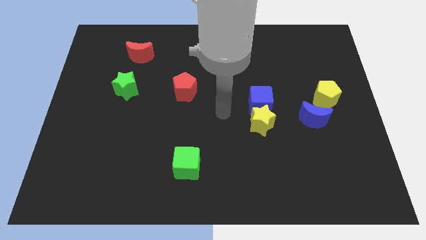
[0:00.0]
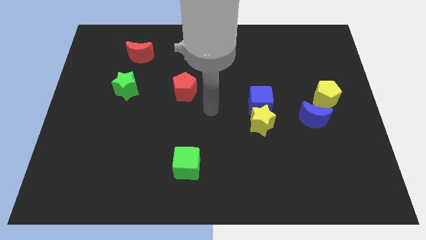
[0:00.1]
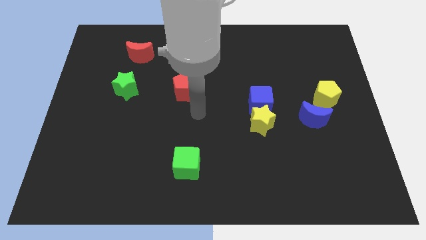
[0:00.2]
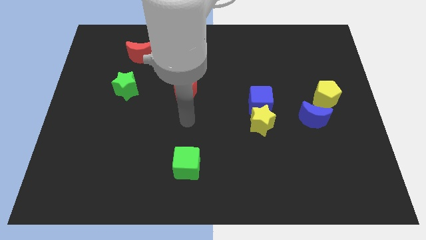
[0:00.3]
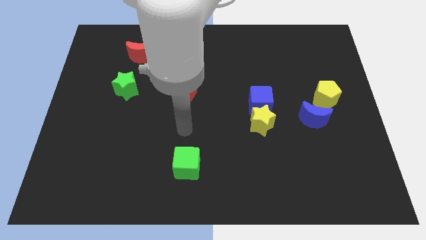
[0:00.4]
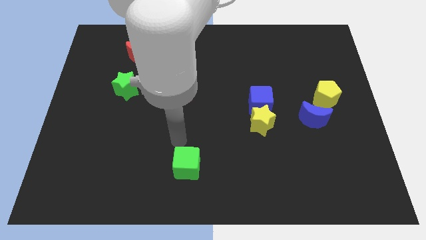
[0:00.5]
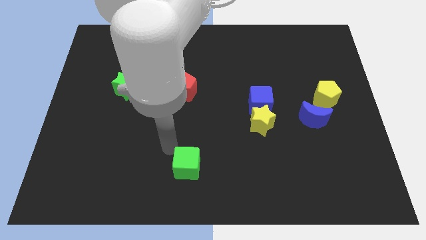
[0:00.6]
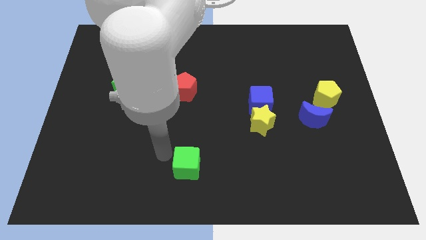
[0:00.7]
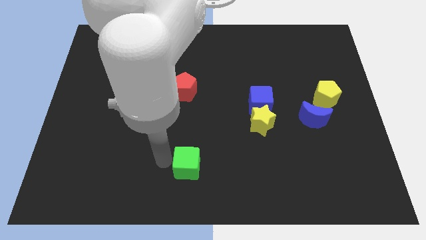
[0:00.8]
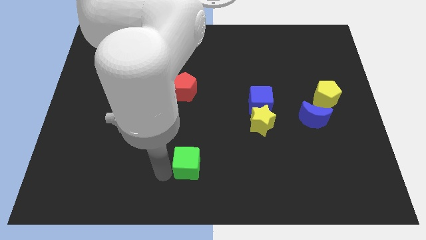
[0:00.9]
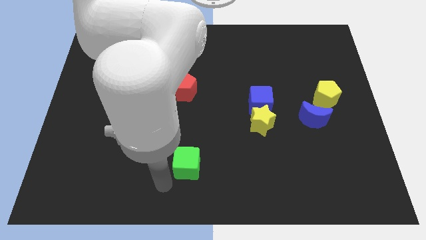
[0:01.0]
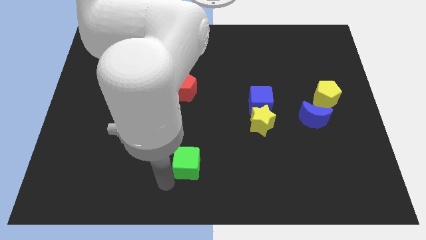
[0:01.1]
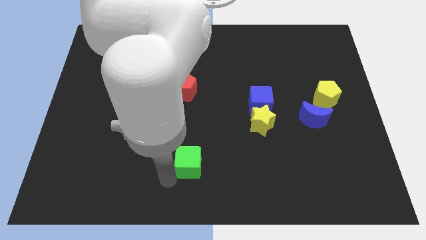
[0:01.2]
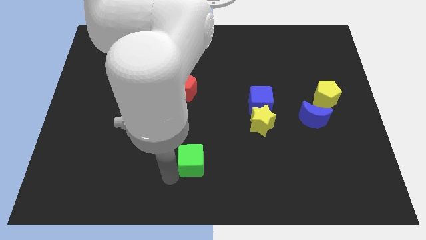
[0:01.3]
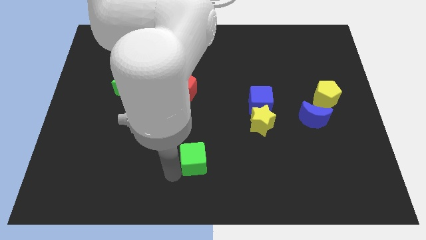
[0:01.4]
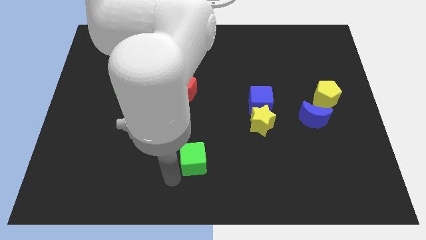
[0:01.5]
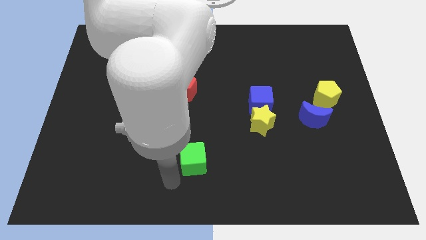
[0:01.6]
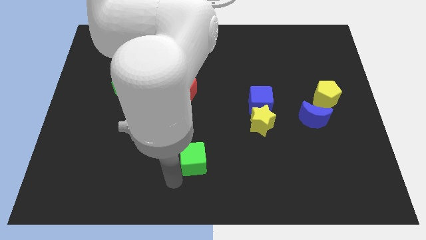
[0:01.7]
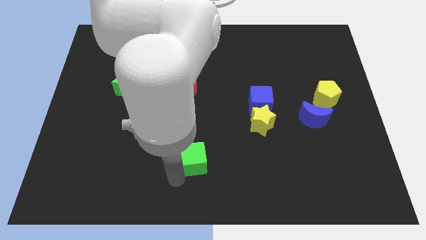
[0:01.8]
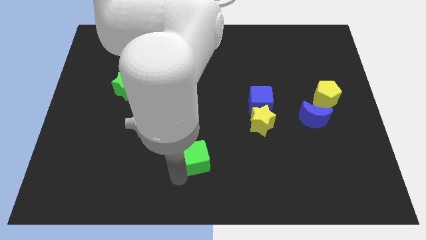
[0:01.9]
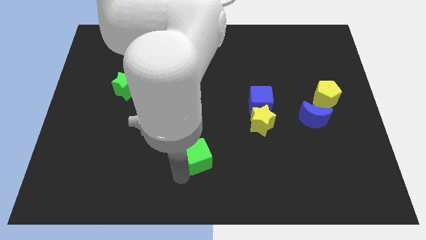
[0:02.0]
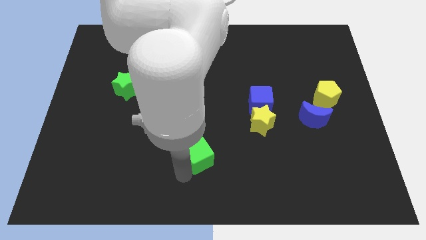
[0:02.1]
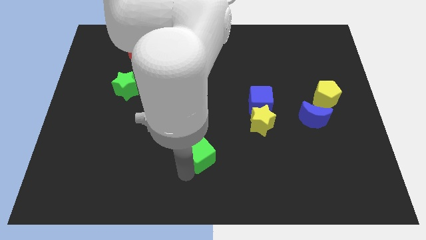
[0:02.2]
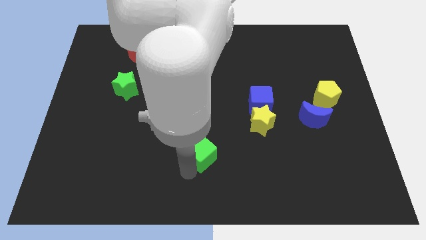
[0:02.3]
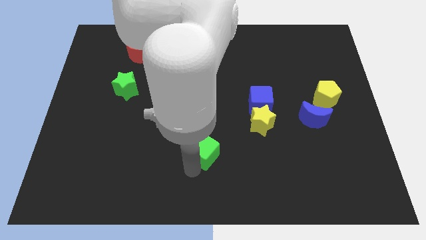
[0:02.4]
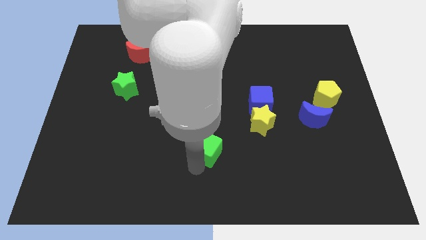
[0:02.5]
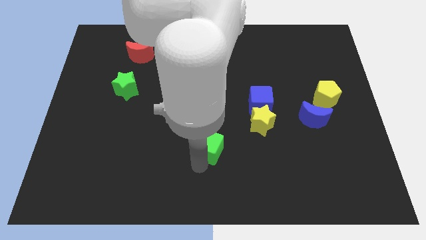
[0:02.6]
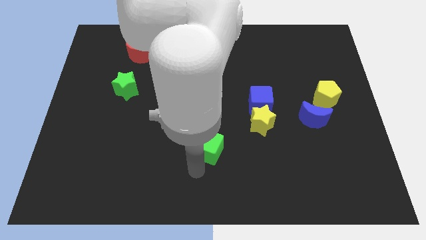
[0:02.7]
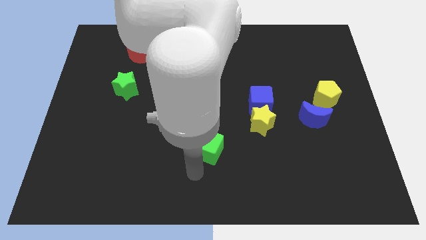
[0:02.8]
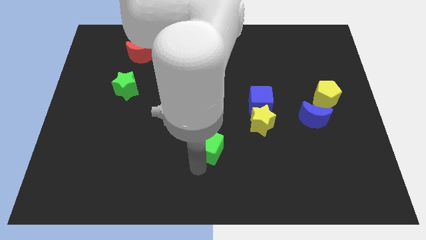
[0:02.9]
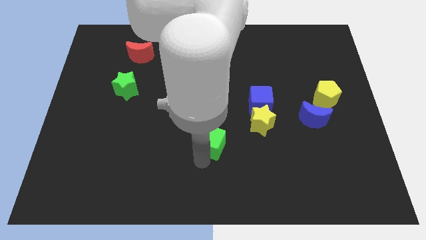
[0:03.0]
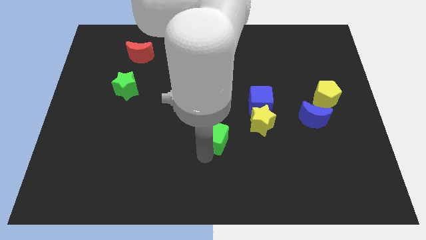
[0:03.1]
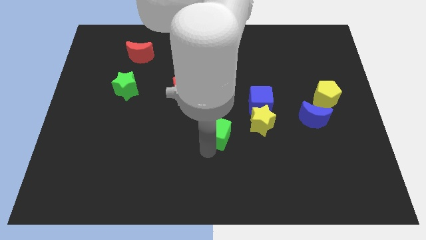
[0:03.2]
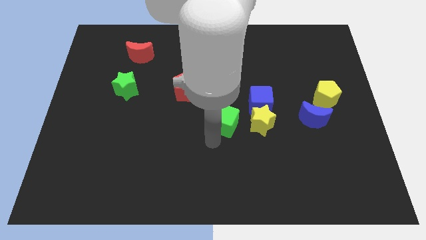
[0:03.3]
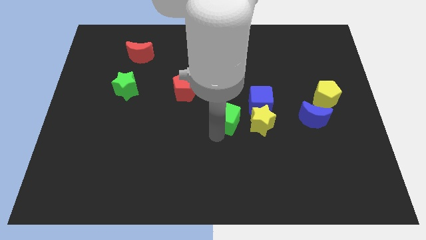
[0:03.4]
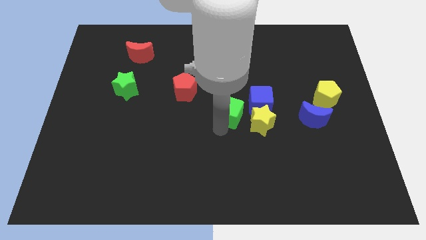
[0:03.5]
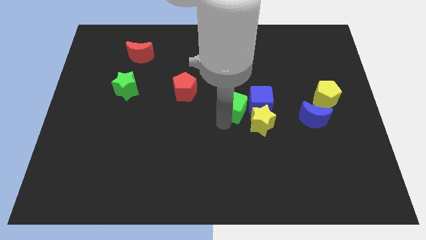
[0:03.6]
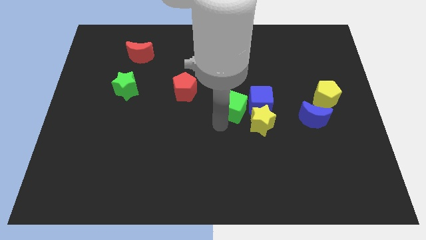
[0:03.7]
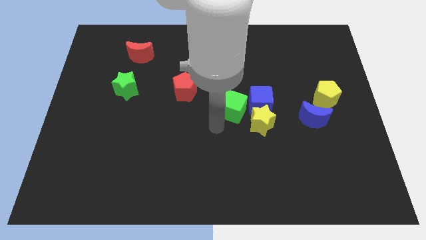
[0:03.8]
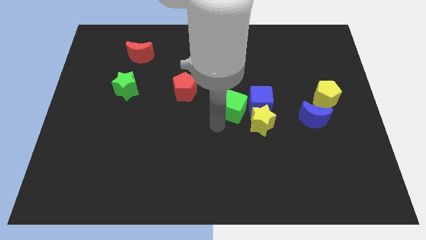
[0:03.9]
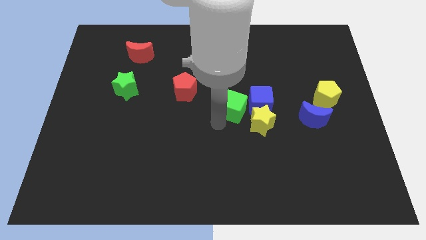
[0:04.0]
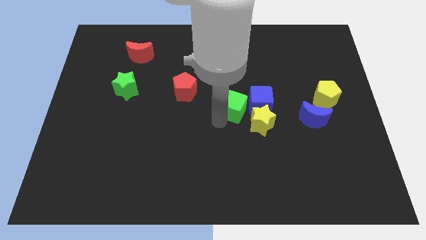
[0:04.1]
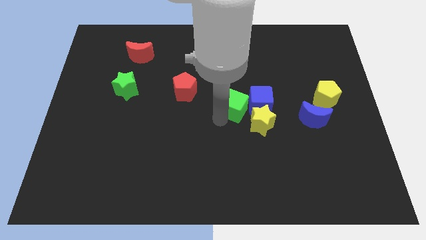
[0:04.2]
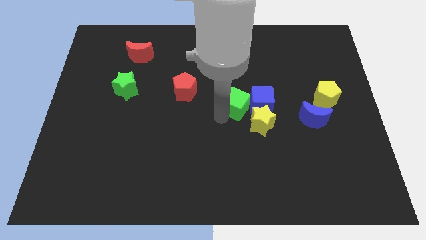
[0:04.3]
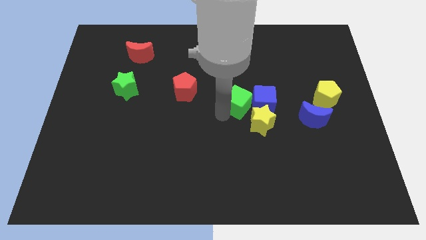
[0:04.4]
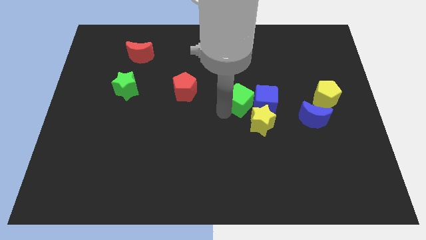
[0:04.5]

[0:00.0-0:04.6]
push the green cube diagonally up and right

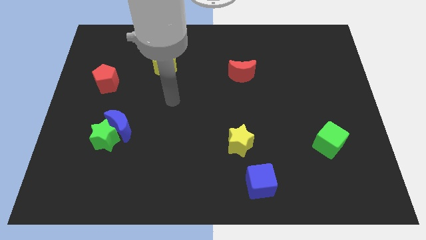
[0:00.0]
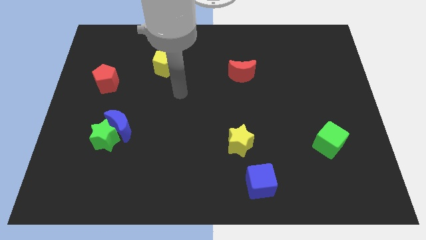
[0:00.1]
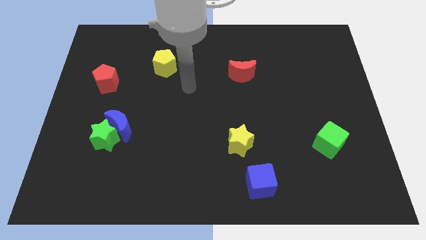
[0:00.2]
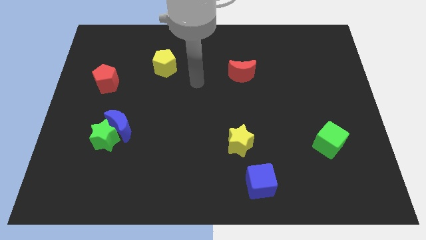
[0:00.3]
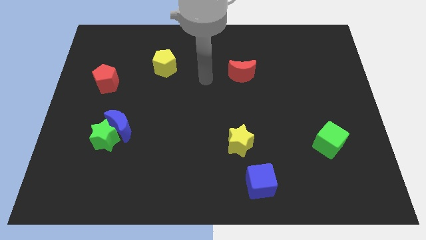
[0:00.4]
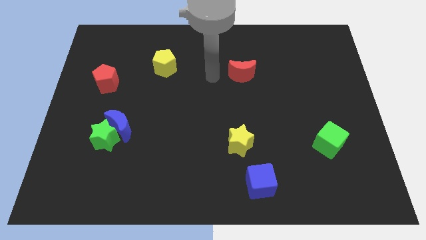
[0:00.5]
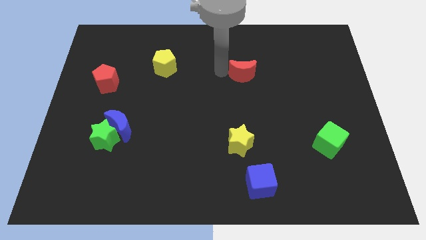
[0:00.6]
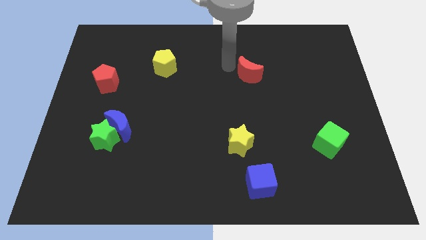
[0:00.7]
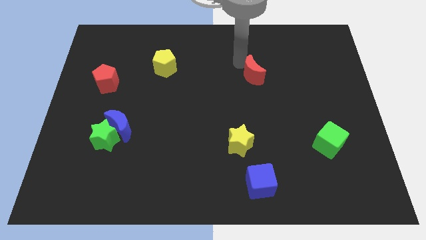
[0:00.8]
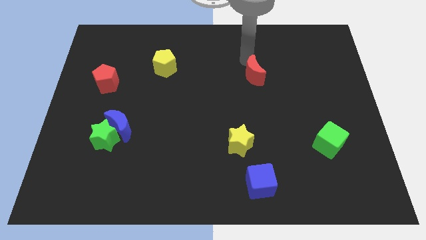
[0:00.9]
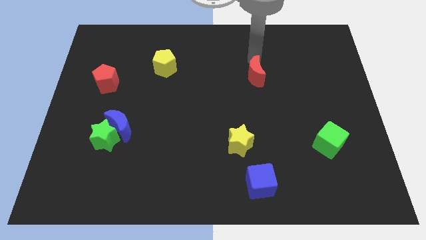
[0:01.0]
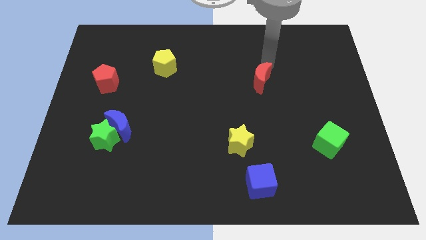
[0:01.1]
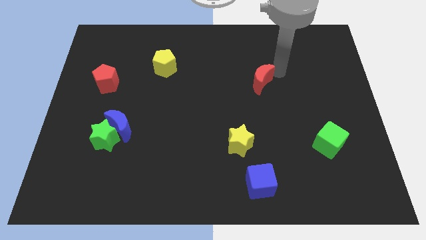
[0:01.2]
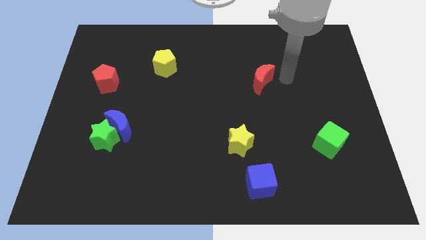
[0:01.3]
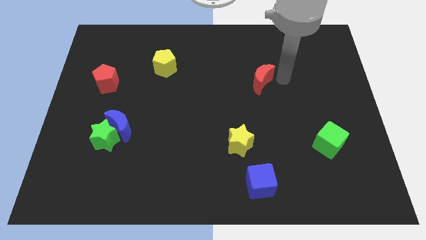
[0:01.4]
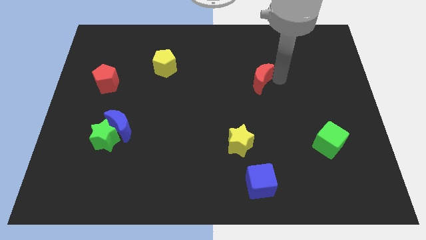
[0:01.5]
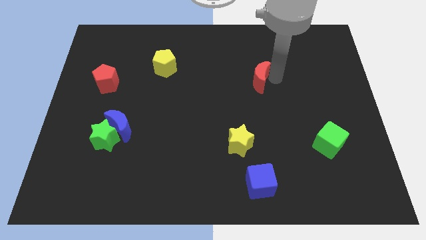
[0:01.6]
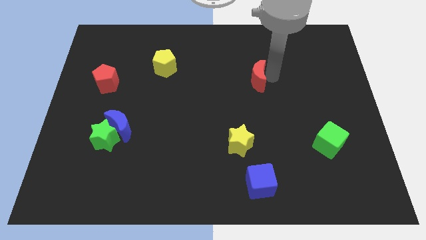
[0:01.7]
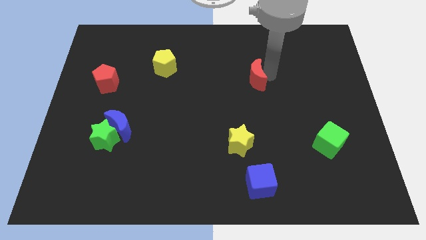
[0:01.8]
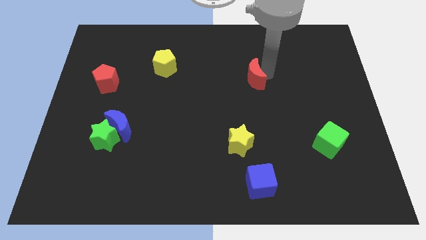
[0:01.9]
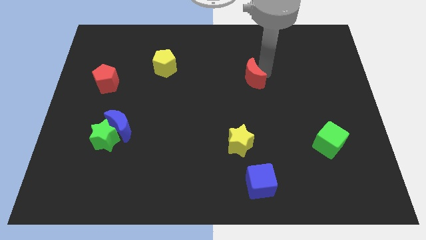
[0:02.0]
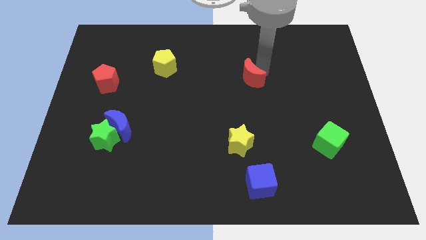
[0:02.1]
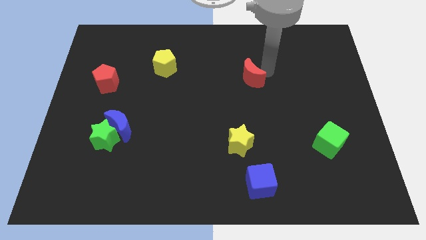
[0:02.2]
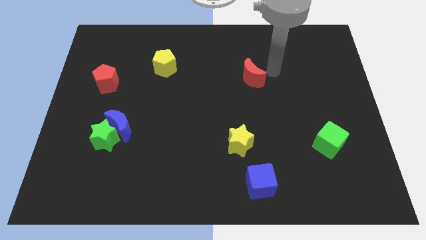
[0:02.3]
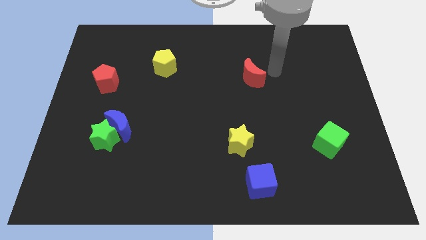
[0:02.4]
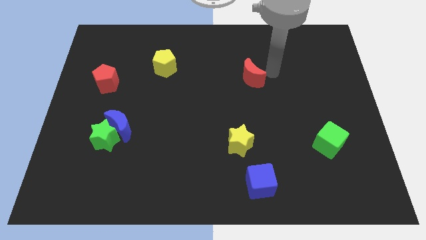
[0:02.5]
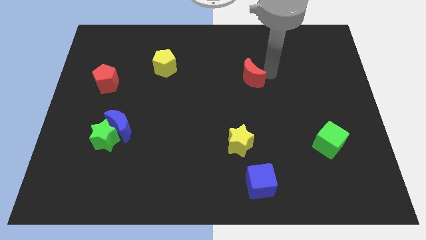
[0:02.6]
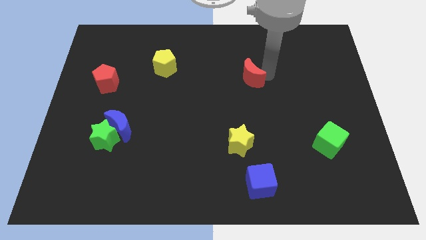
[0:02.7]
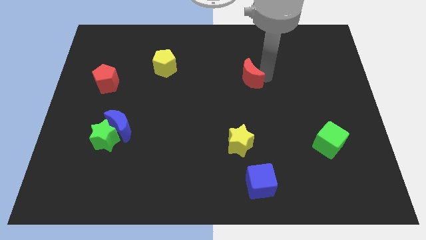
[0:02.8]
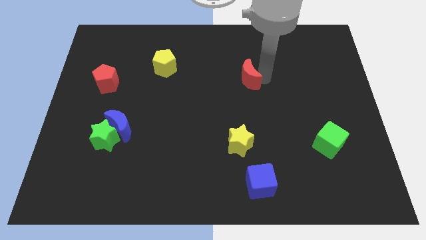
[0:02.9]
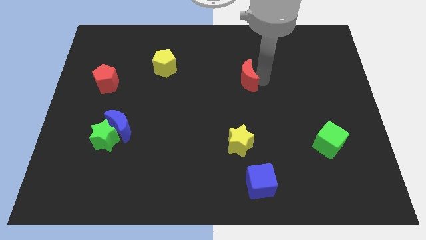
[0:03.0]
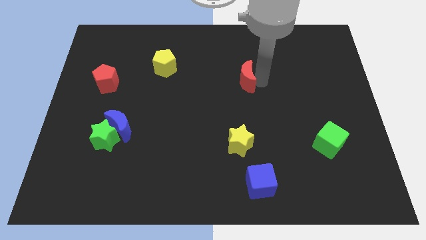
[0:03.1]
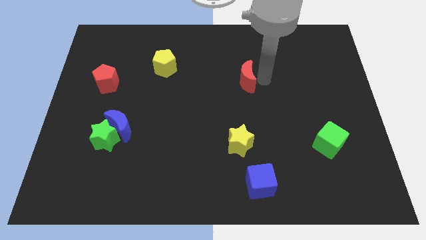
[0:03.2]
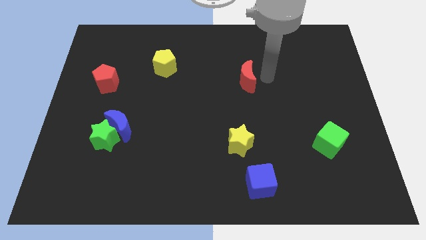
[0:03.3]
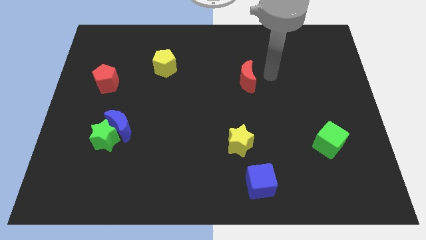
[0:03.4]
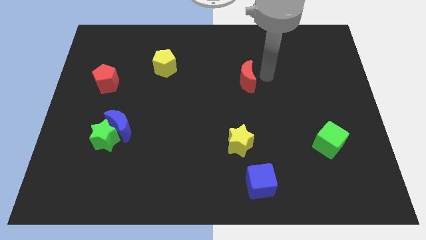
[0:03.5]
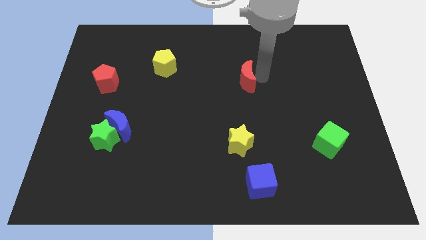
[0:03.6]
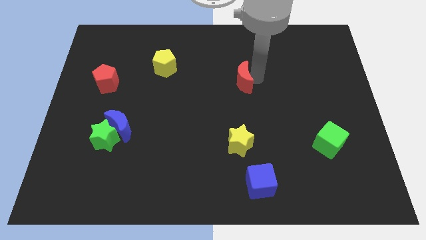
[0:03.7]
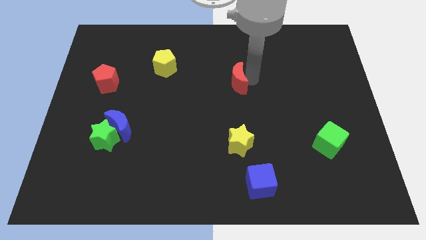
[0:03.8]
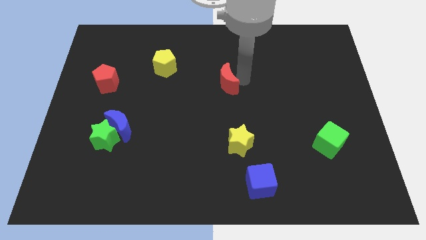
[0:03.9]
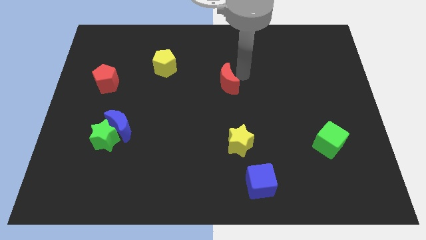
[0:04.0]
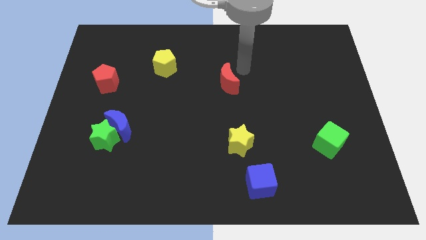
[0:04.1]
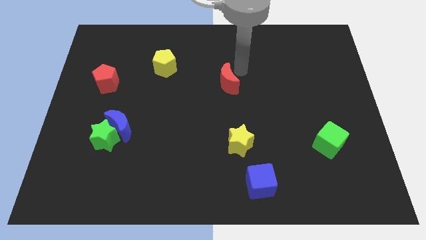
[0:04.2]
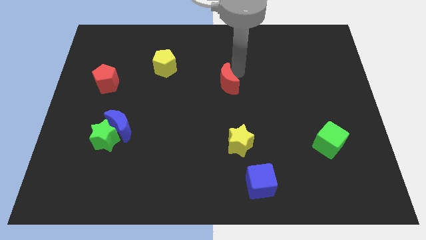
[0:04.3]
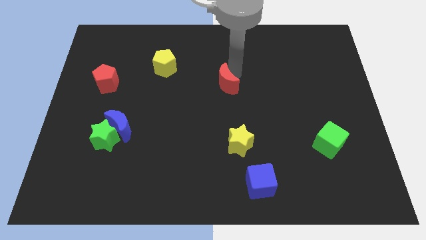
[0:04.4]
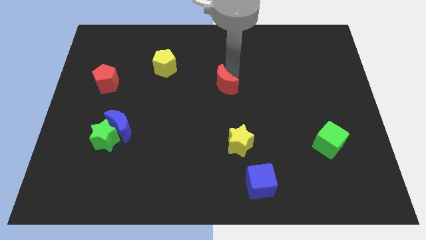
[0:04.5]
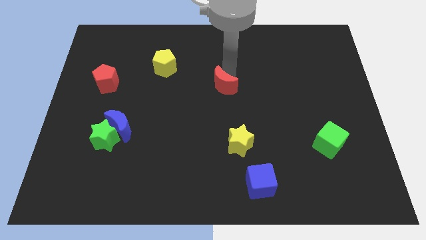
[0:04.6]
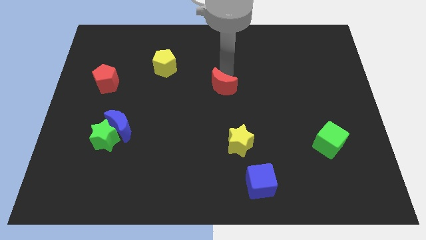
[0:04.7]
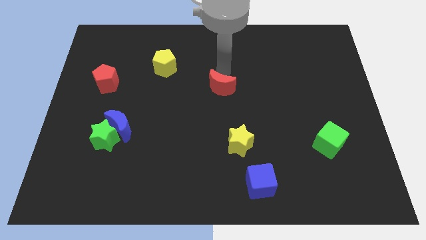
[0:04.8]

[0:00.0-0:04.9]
push the red moon a little diagonally downwards and left
